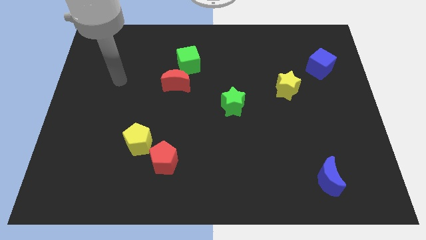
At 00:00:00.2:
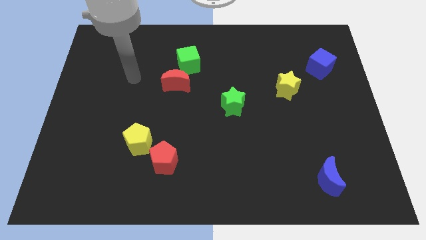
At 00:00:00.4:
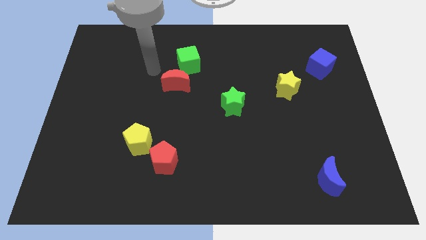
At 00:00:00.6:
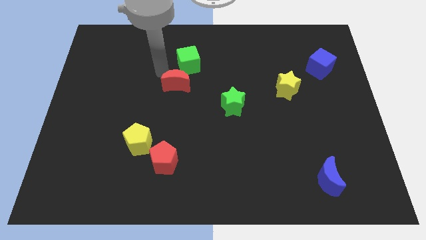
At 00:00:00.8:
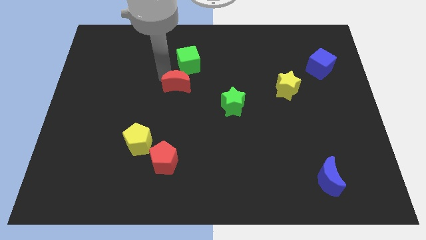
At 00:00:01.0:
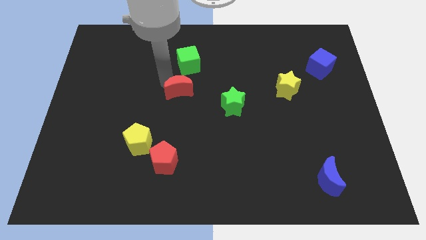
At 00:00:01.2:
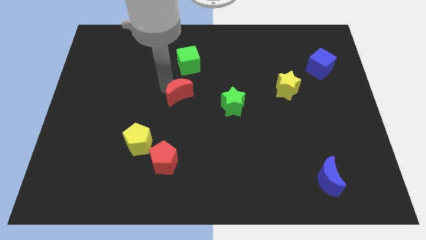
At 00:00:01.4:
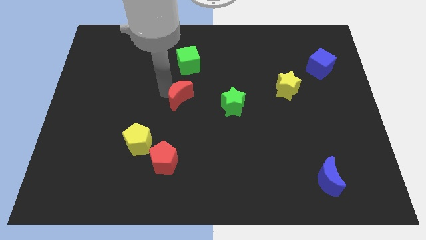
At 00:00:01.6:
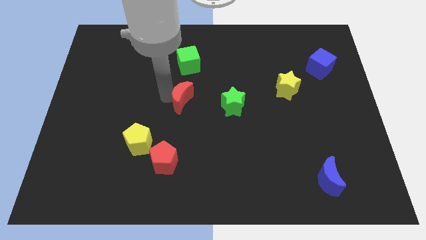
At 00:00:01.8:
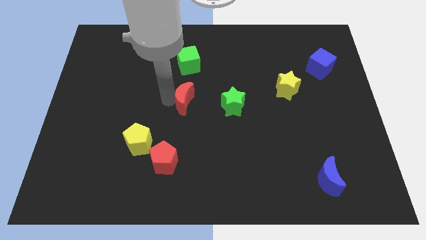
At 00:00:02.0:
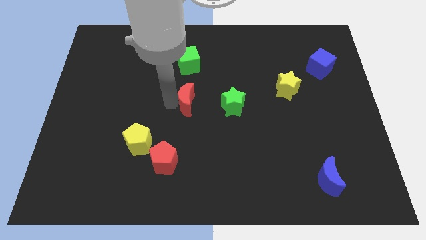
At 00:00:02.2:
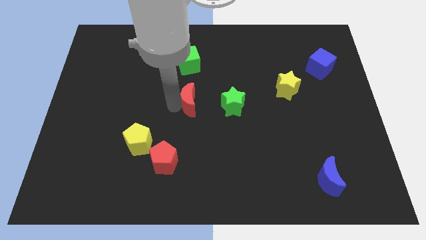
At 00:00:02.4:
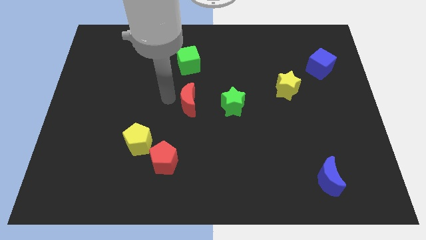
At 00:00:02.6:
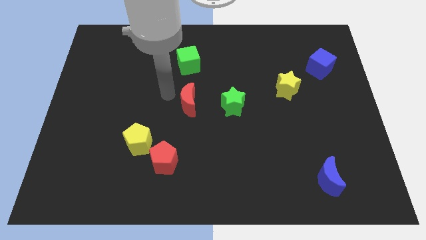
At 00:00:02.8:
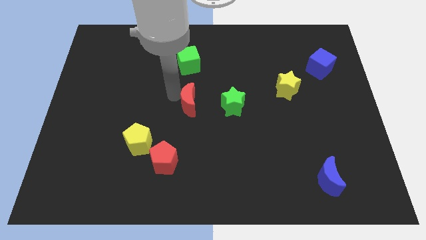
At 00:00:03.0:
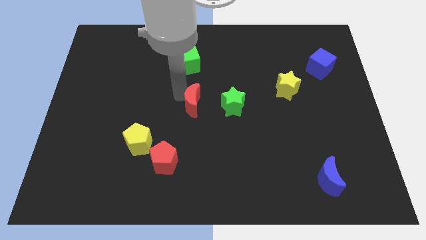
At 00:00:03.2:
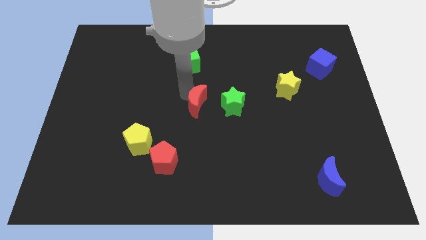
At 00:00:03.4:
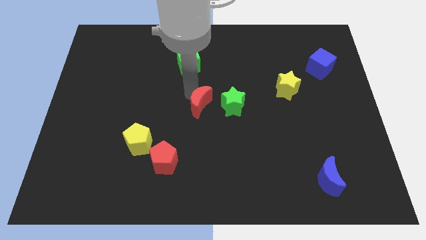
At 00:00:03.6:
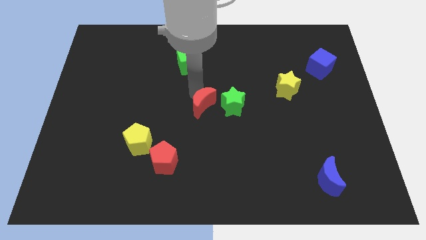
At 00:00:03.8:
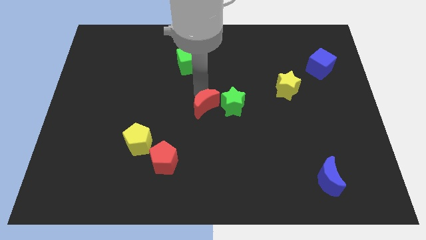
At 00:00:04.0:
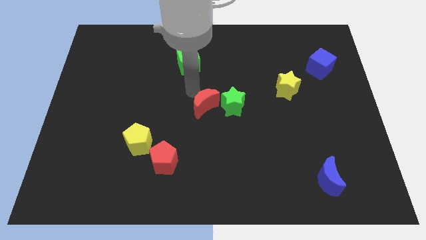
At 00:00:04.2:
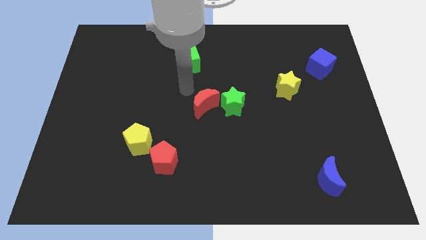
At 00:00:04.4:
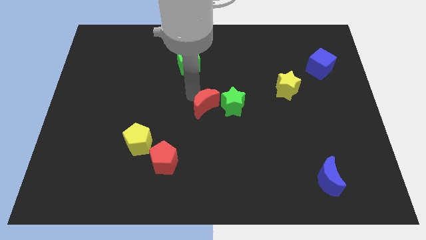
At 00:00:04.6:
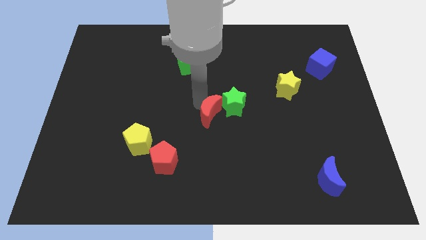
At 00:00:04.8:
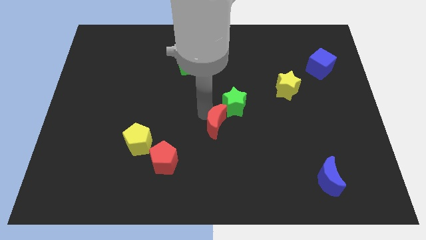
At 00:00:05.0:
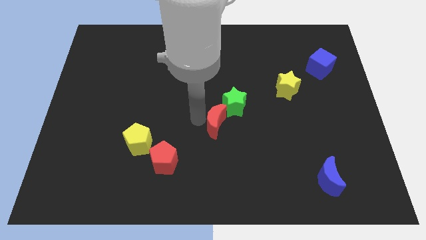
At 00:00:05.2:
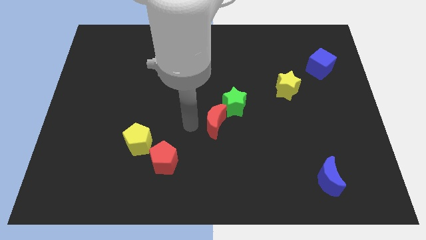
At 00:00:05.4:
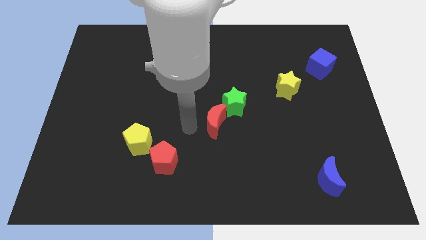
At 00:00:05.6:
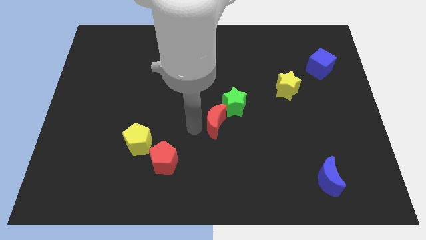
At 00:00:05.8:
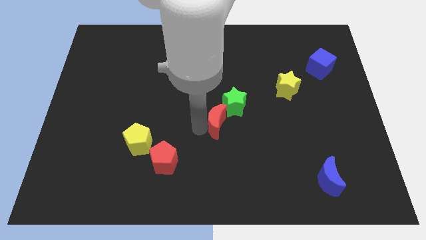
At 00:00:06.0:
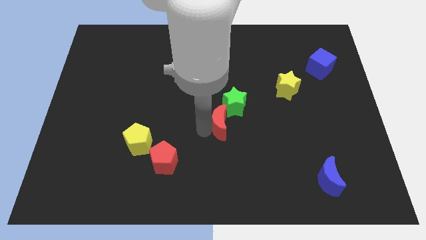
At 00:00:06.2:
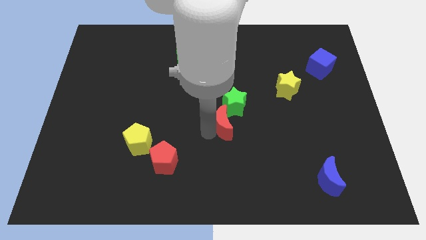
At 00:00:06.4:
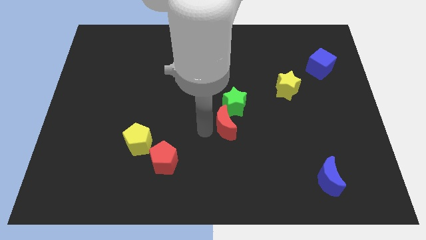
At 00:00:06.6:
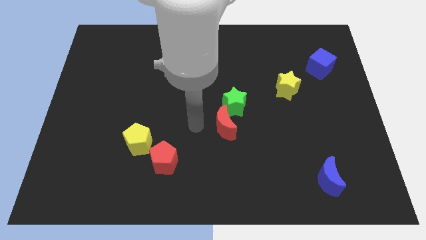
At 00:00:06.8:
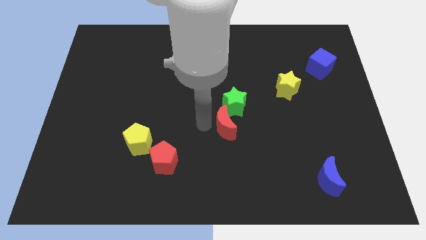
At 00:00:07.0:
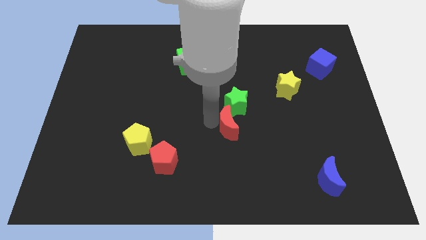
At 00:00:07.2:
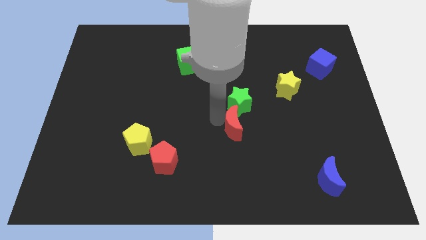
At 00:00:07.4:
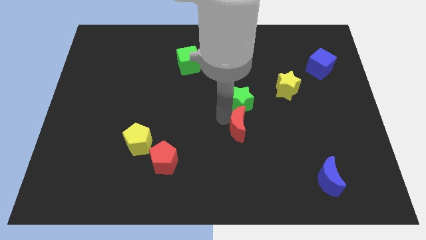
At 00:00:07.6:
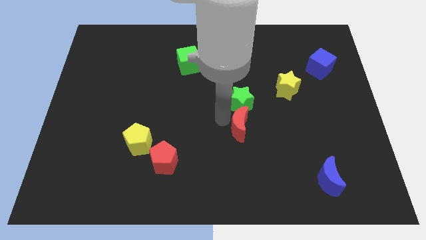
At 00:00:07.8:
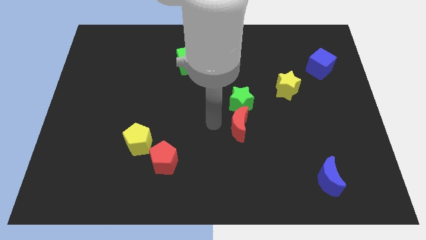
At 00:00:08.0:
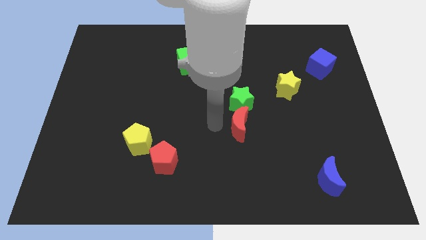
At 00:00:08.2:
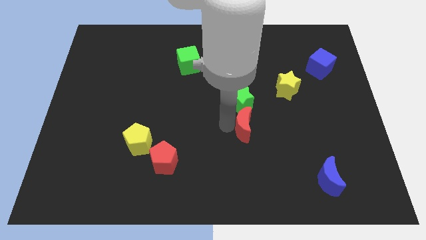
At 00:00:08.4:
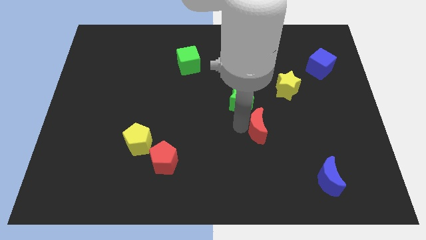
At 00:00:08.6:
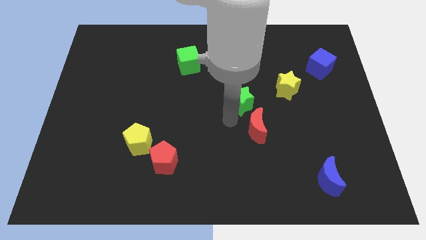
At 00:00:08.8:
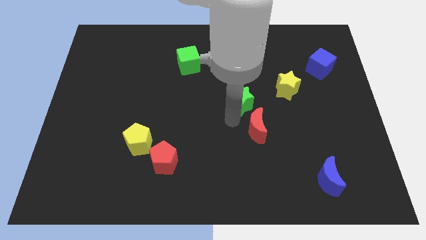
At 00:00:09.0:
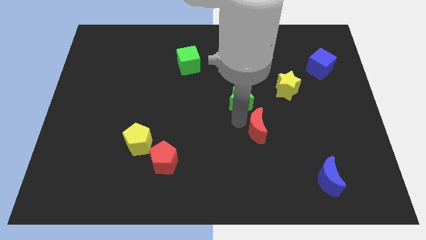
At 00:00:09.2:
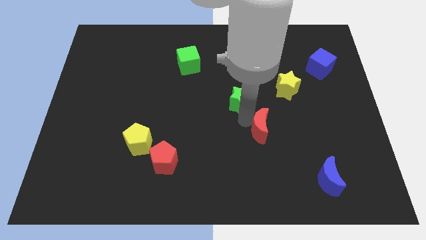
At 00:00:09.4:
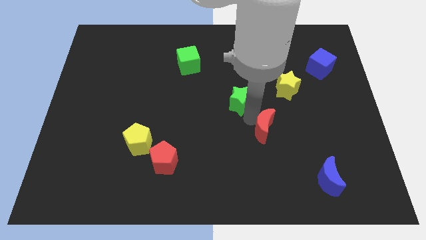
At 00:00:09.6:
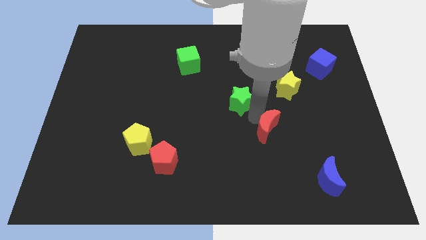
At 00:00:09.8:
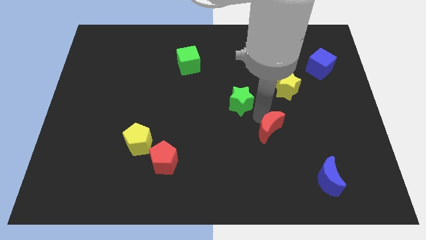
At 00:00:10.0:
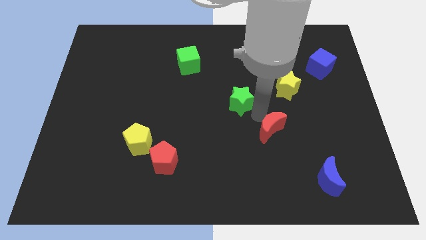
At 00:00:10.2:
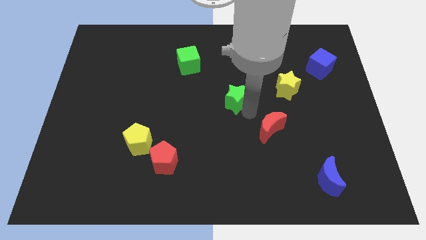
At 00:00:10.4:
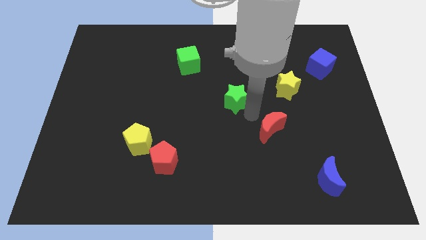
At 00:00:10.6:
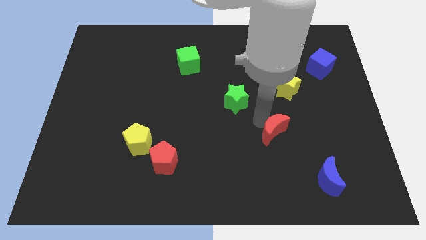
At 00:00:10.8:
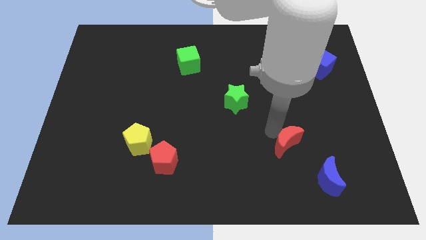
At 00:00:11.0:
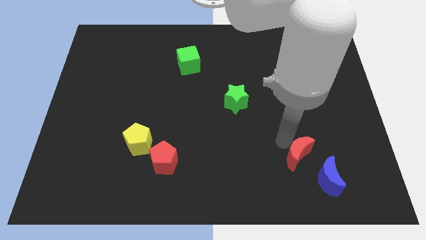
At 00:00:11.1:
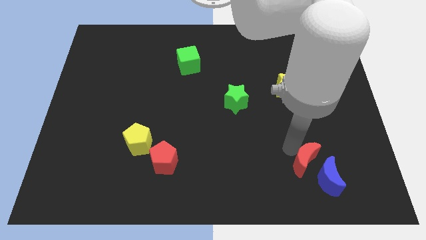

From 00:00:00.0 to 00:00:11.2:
push the red moon towards the blue moon

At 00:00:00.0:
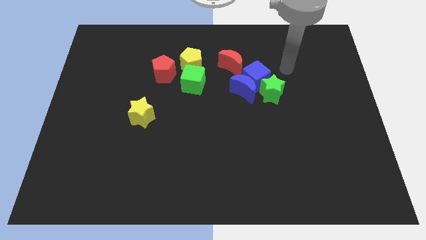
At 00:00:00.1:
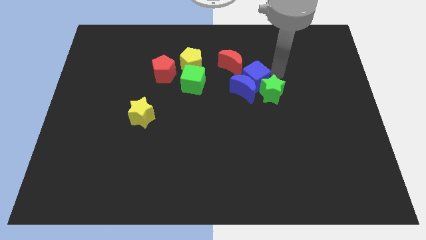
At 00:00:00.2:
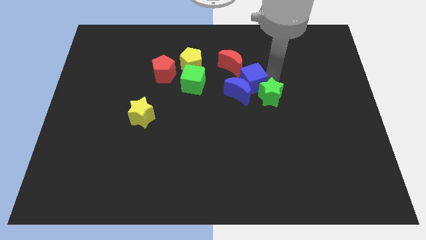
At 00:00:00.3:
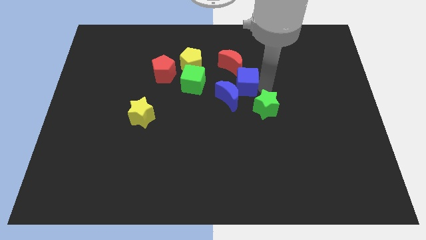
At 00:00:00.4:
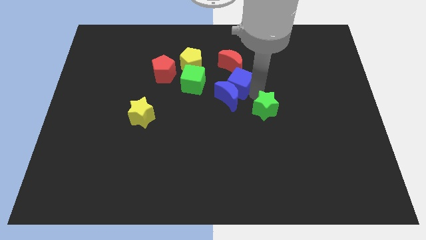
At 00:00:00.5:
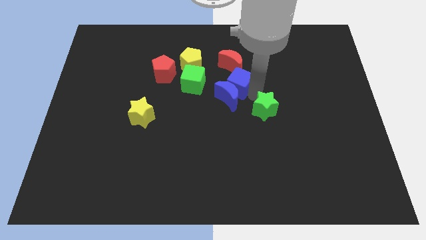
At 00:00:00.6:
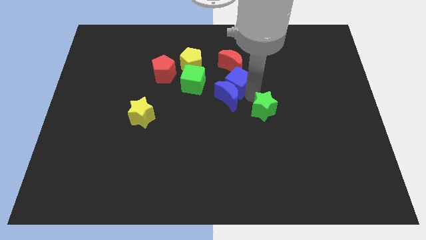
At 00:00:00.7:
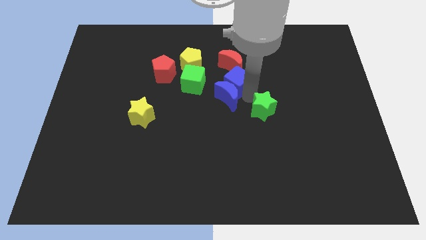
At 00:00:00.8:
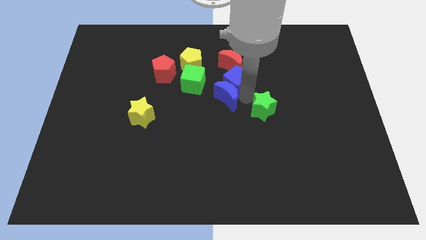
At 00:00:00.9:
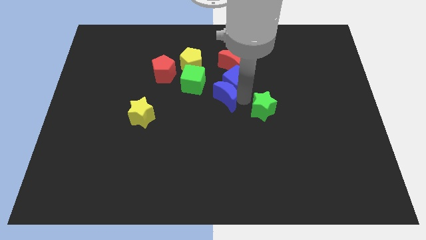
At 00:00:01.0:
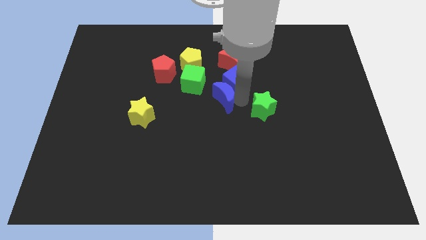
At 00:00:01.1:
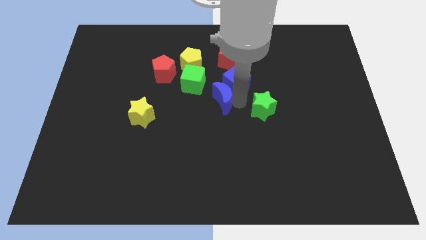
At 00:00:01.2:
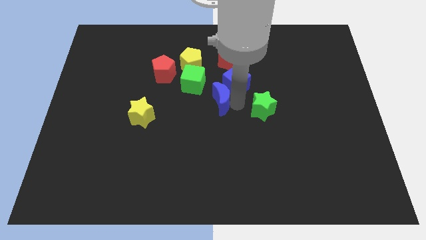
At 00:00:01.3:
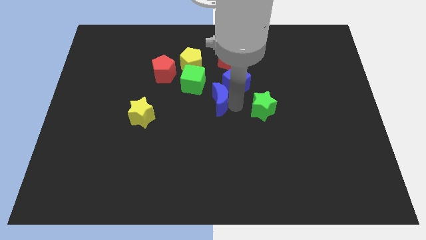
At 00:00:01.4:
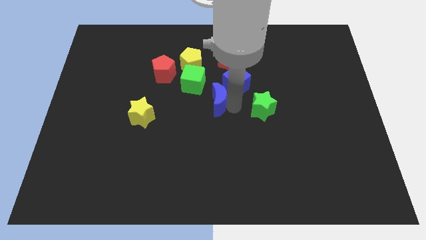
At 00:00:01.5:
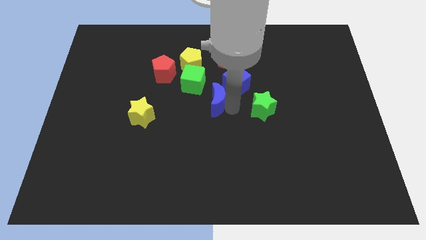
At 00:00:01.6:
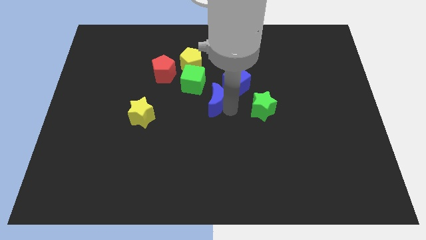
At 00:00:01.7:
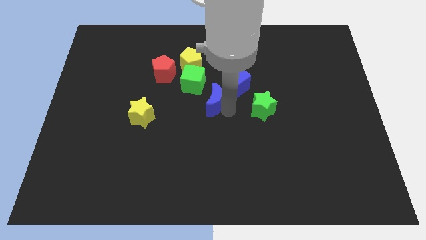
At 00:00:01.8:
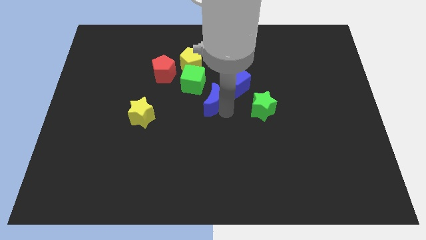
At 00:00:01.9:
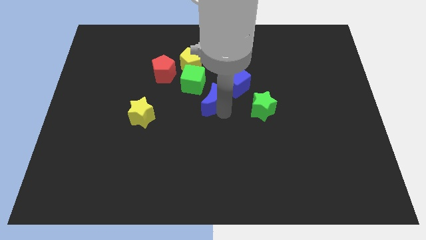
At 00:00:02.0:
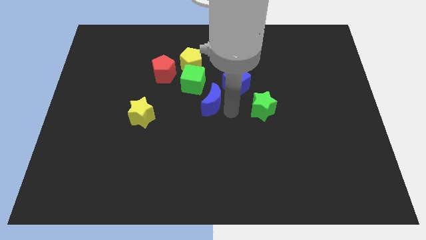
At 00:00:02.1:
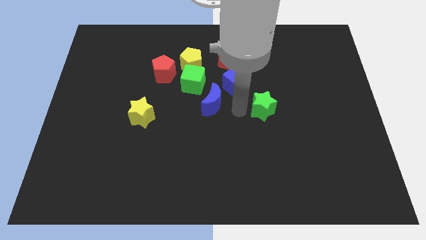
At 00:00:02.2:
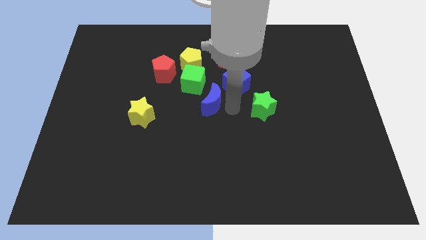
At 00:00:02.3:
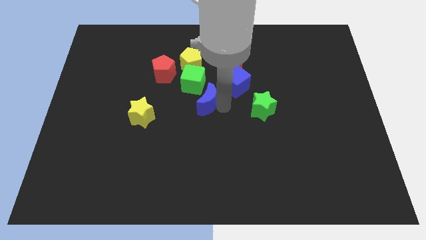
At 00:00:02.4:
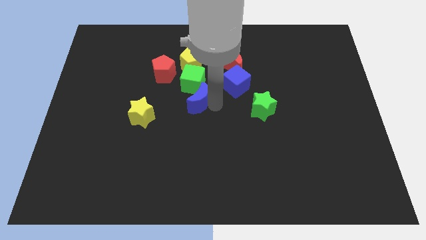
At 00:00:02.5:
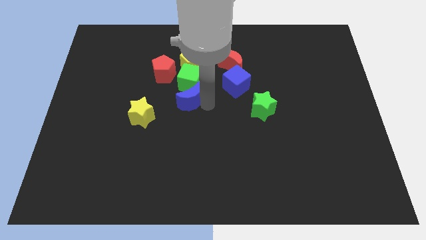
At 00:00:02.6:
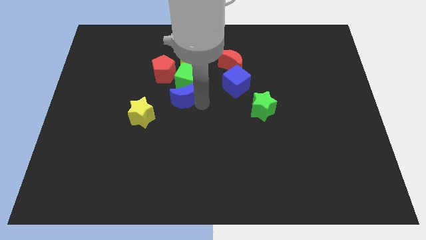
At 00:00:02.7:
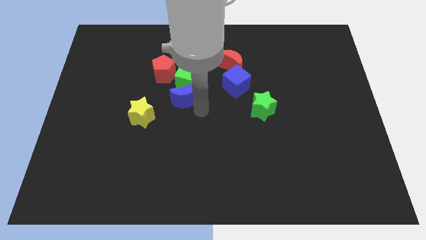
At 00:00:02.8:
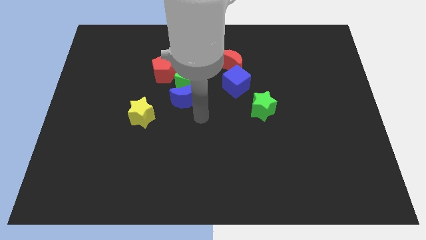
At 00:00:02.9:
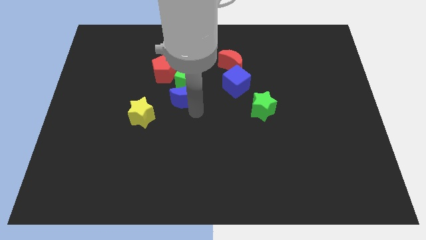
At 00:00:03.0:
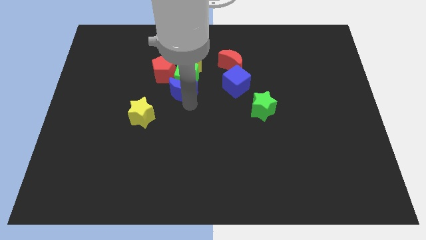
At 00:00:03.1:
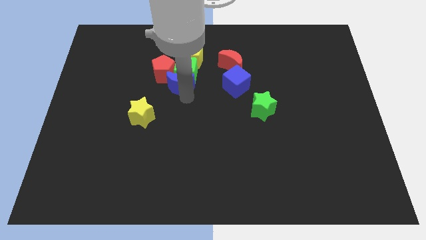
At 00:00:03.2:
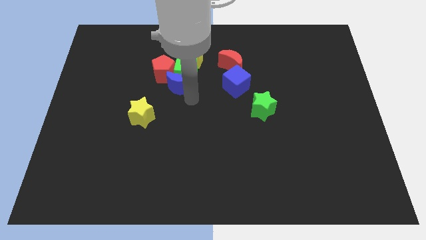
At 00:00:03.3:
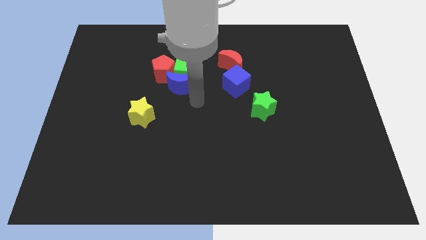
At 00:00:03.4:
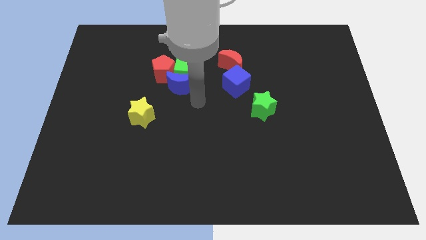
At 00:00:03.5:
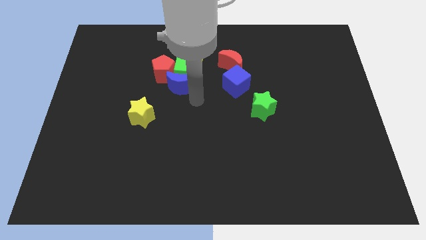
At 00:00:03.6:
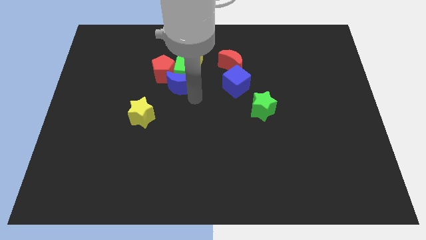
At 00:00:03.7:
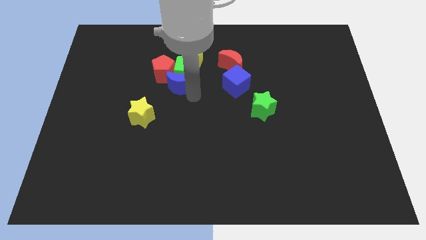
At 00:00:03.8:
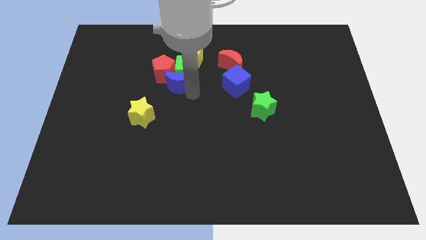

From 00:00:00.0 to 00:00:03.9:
slide the blue moon to the red pentagon
